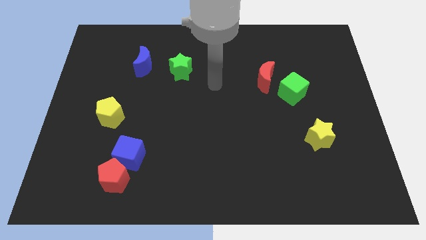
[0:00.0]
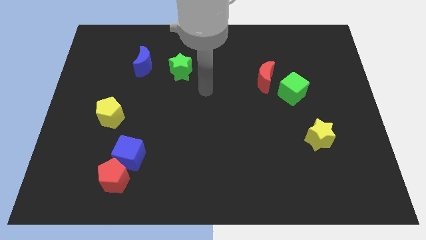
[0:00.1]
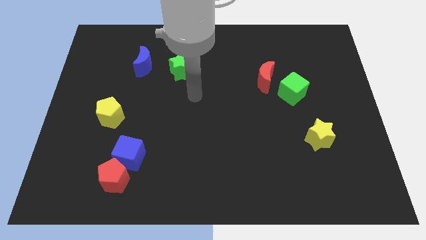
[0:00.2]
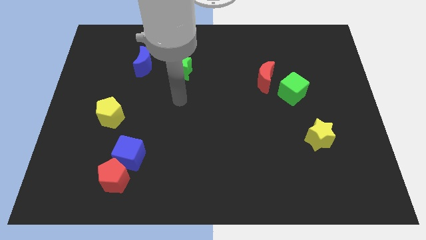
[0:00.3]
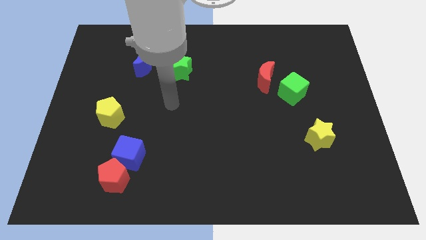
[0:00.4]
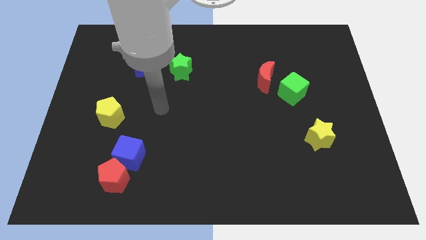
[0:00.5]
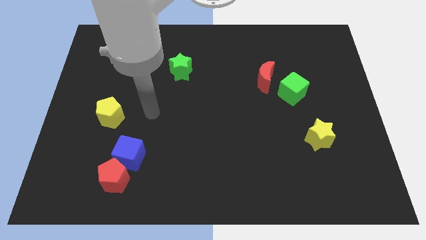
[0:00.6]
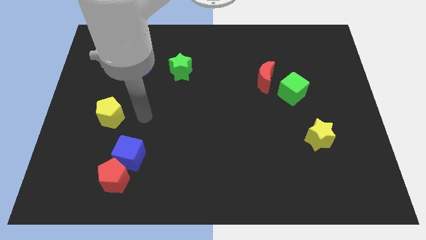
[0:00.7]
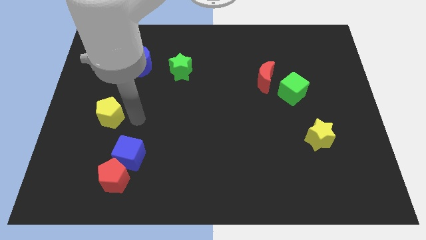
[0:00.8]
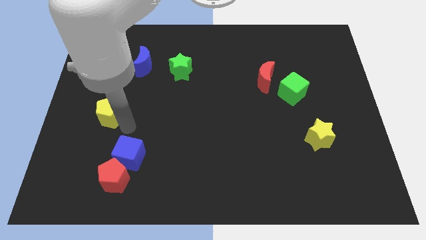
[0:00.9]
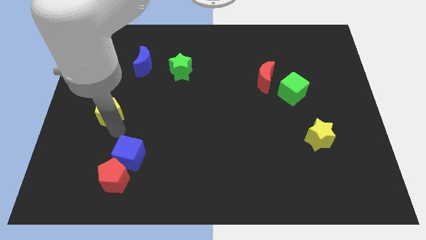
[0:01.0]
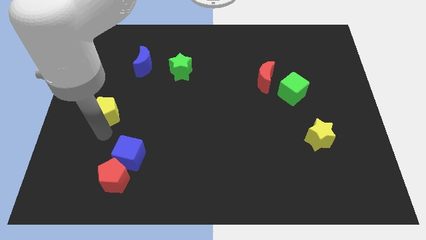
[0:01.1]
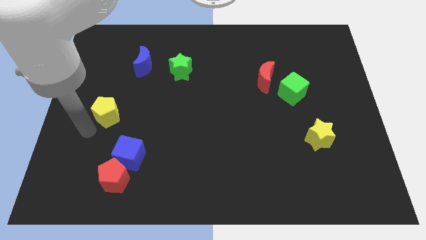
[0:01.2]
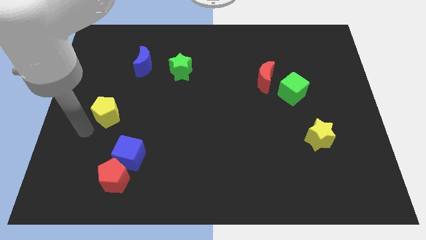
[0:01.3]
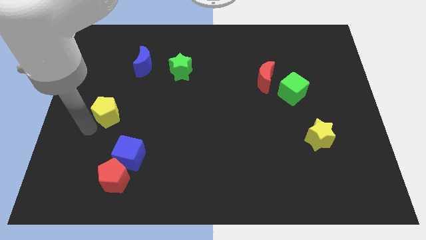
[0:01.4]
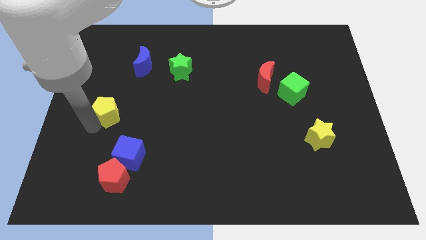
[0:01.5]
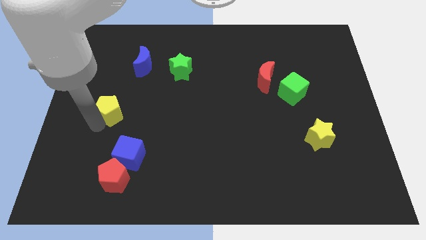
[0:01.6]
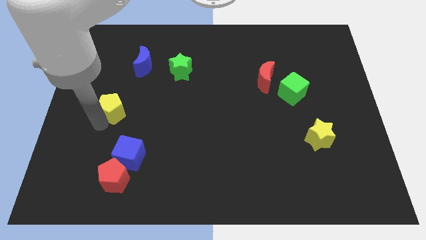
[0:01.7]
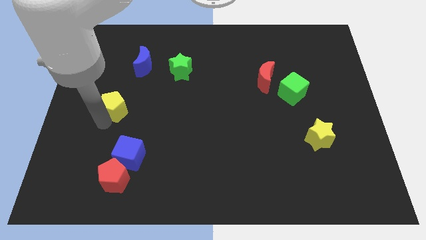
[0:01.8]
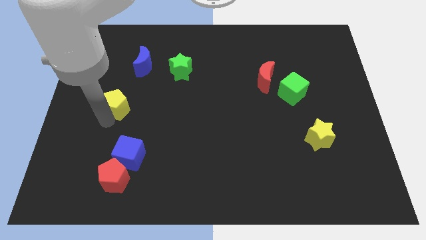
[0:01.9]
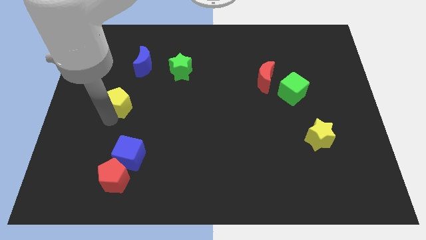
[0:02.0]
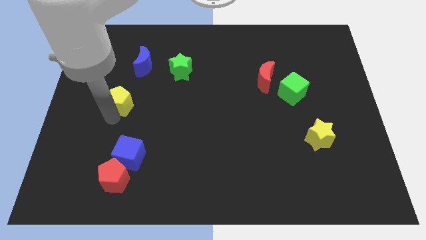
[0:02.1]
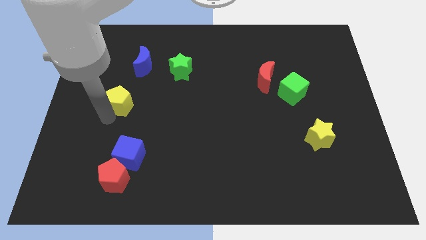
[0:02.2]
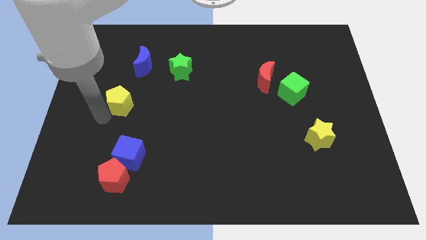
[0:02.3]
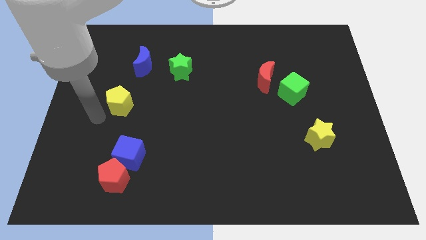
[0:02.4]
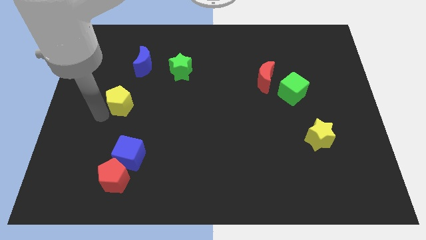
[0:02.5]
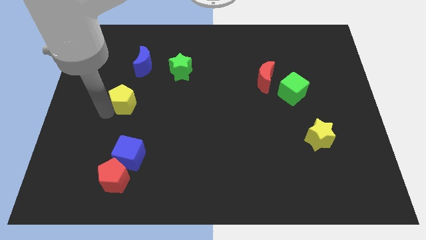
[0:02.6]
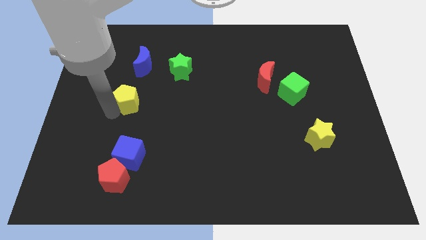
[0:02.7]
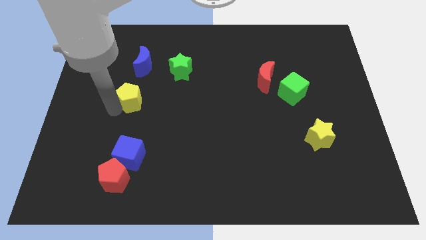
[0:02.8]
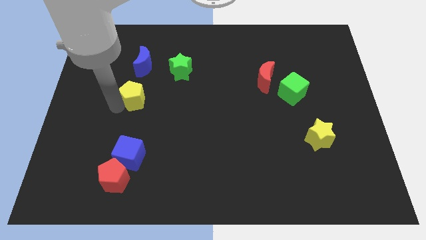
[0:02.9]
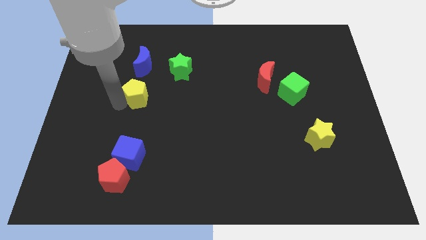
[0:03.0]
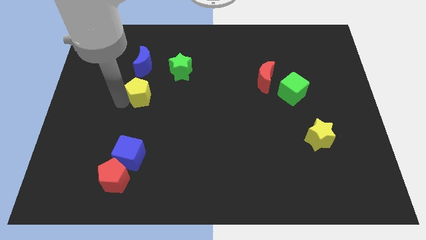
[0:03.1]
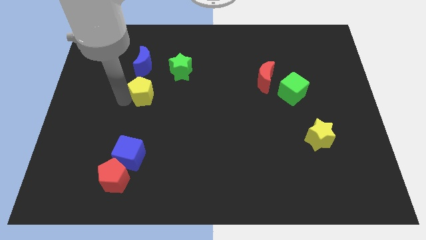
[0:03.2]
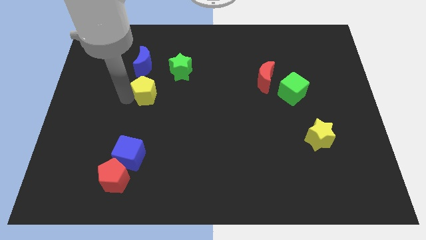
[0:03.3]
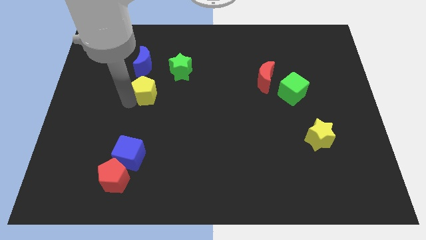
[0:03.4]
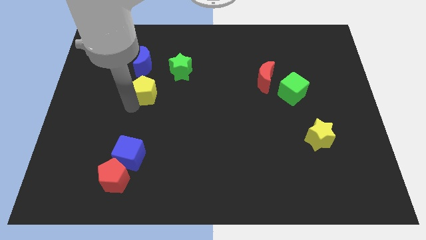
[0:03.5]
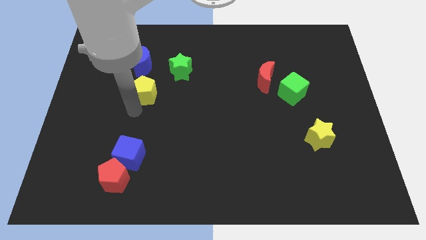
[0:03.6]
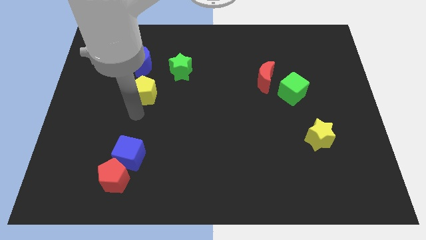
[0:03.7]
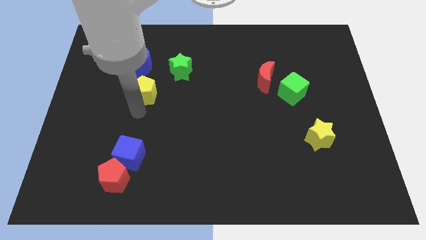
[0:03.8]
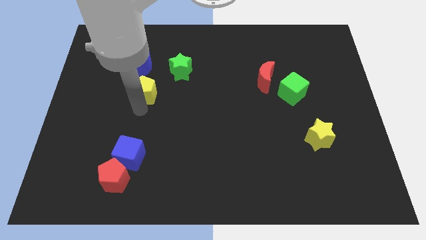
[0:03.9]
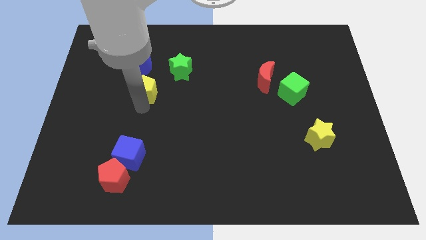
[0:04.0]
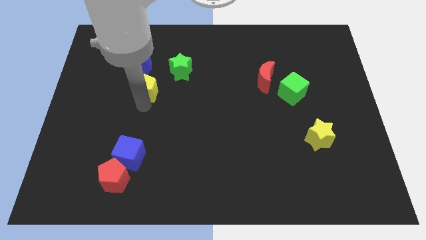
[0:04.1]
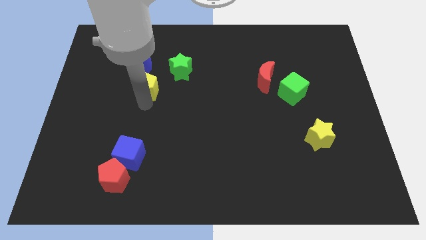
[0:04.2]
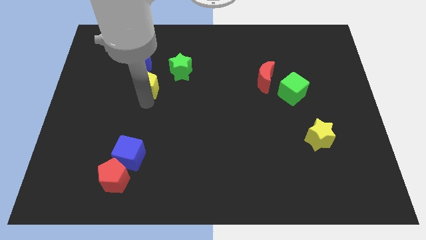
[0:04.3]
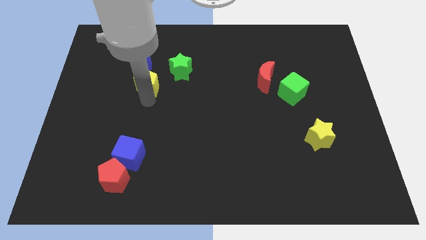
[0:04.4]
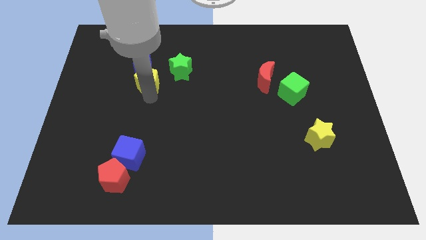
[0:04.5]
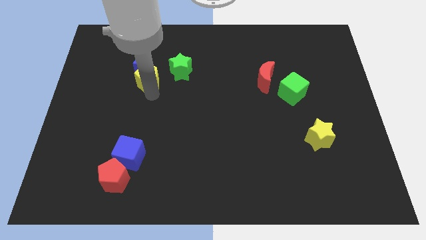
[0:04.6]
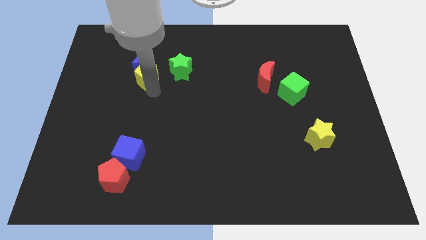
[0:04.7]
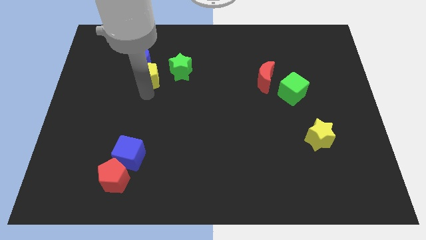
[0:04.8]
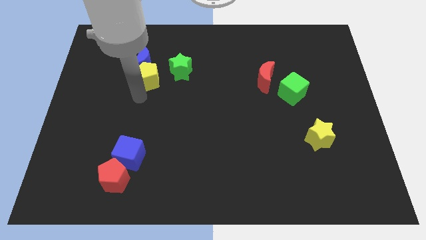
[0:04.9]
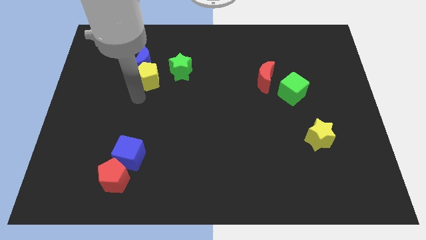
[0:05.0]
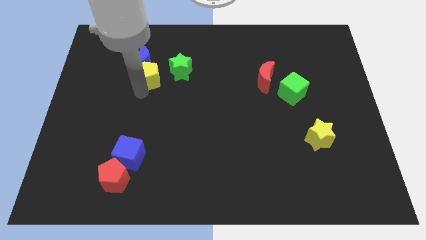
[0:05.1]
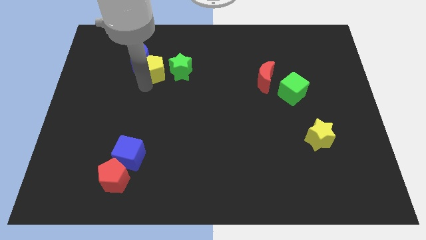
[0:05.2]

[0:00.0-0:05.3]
push the yellow pentagon diagonally up and to the left of the green star

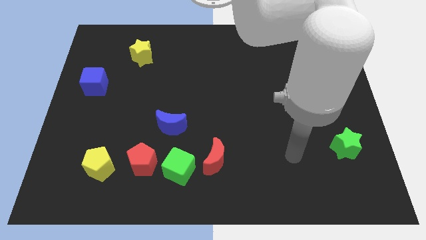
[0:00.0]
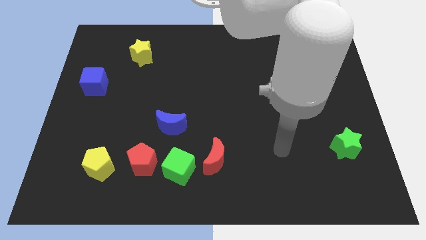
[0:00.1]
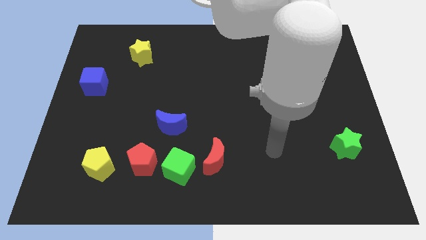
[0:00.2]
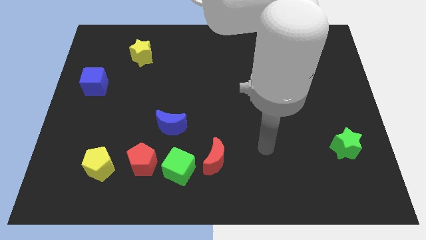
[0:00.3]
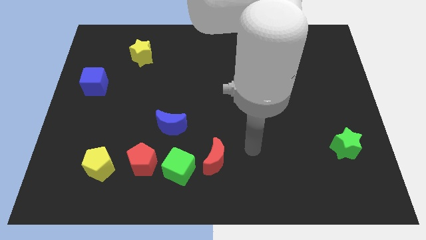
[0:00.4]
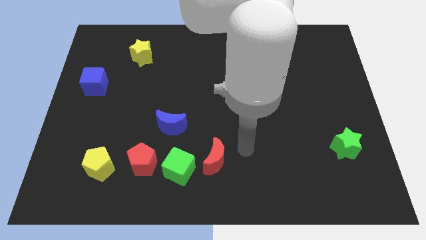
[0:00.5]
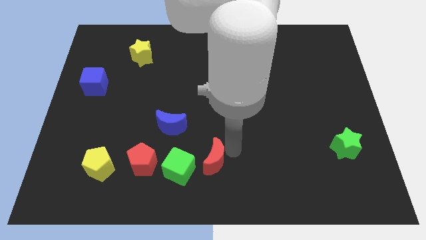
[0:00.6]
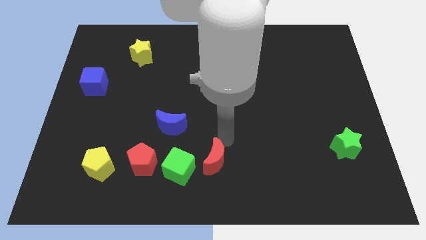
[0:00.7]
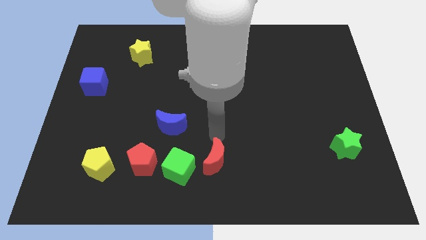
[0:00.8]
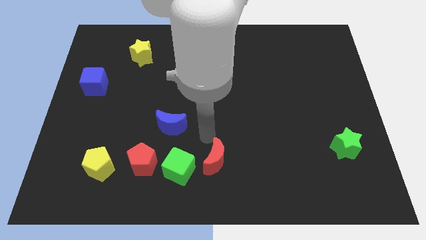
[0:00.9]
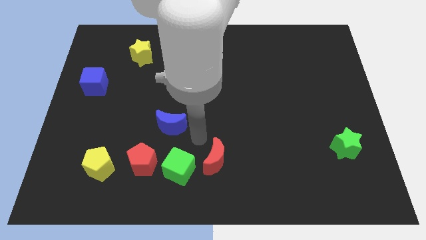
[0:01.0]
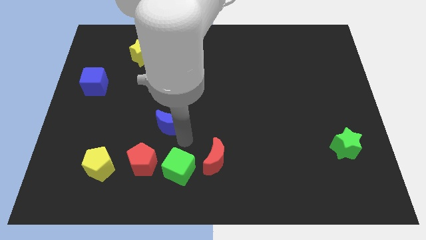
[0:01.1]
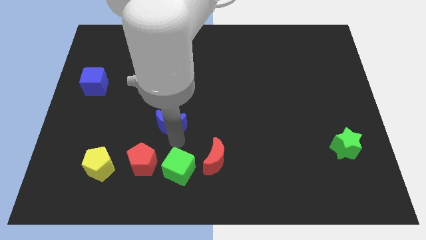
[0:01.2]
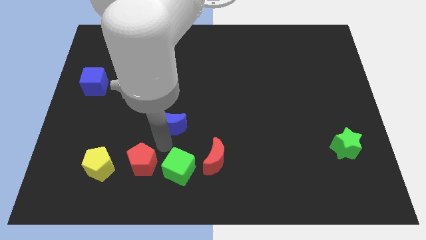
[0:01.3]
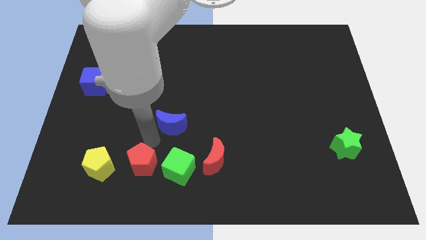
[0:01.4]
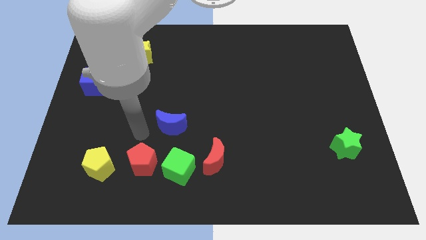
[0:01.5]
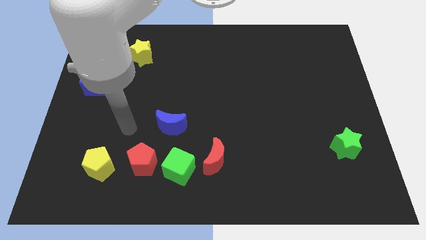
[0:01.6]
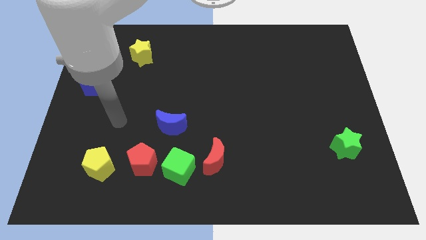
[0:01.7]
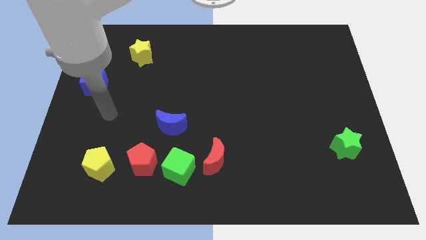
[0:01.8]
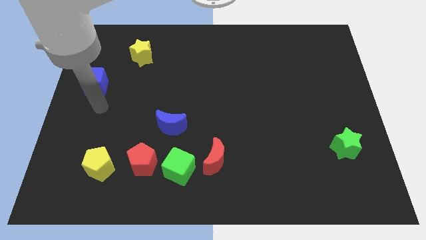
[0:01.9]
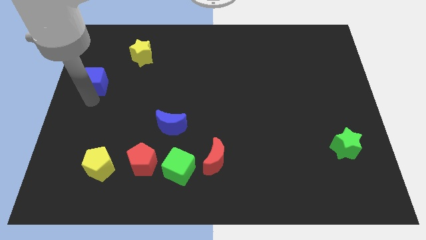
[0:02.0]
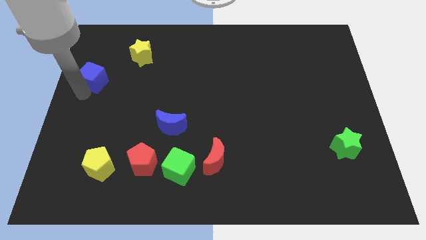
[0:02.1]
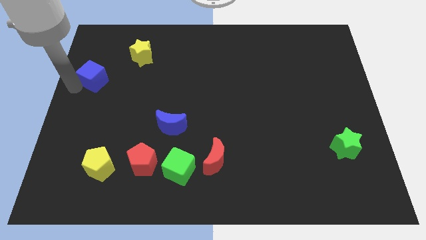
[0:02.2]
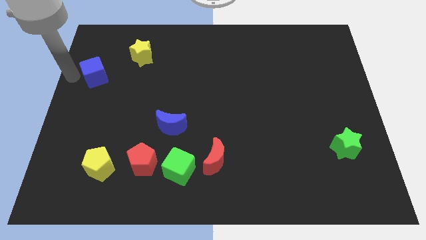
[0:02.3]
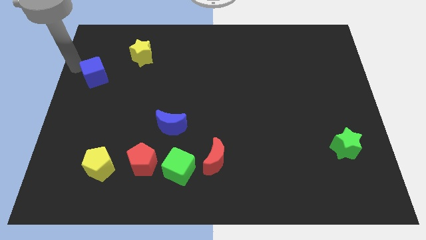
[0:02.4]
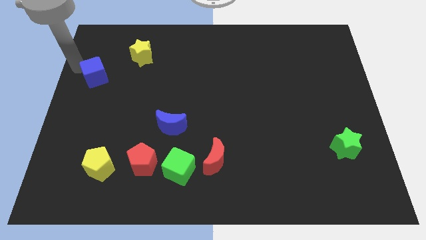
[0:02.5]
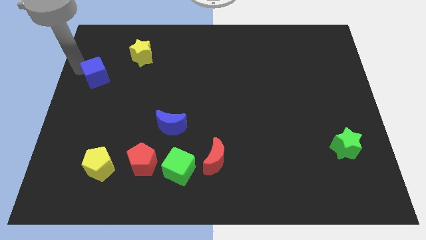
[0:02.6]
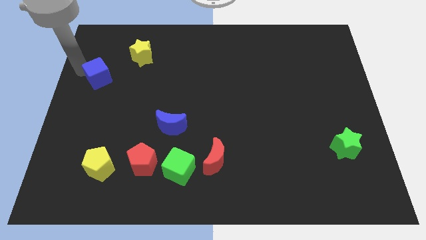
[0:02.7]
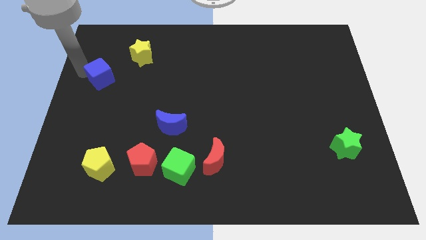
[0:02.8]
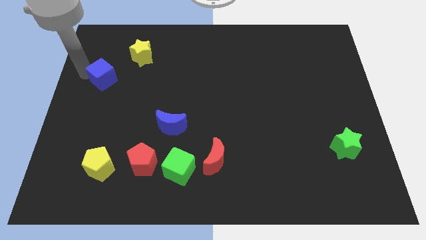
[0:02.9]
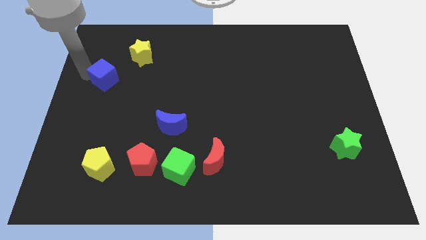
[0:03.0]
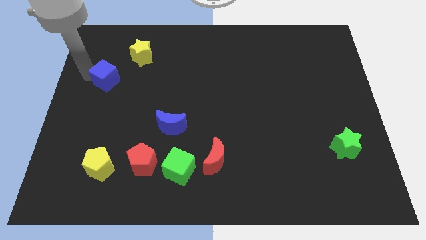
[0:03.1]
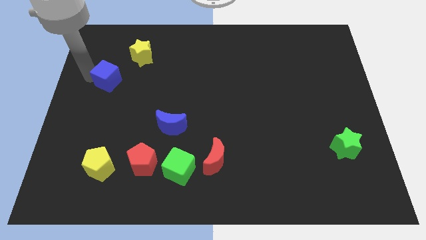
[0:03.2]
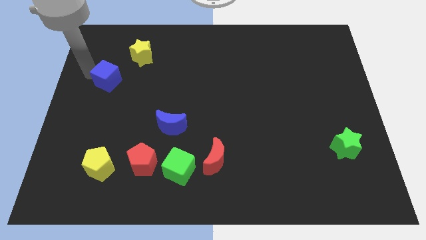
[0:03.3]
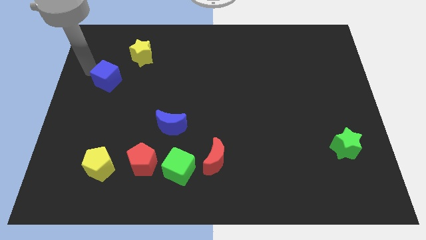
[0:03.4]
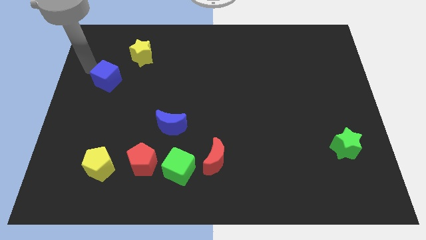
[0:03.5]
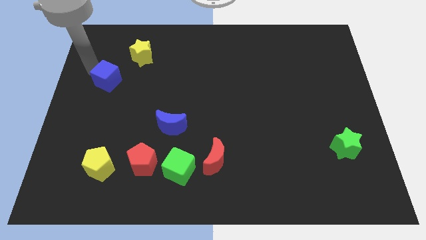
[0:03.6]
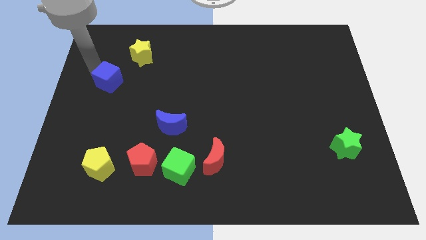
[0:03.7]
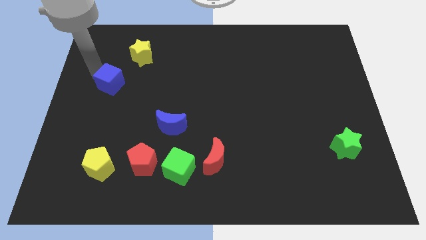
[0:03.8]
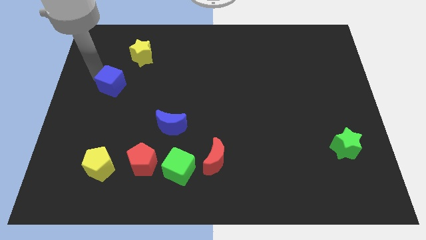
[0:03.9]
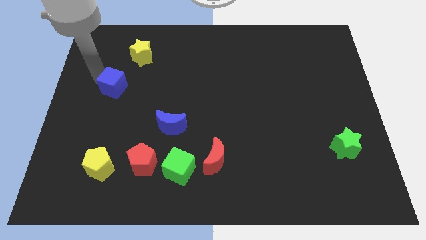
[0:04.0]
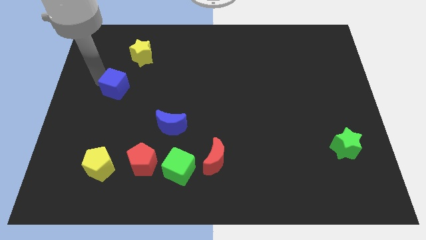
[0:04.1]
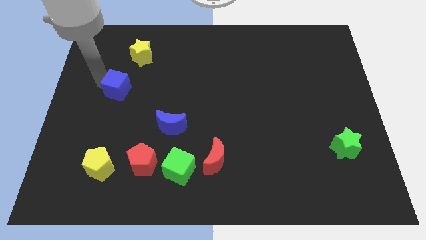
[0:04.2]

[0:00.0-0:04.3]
put the blue cube to the bottom side of the yellow star
